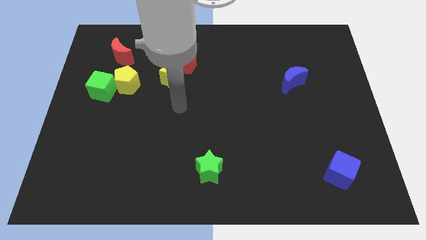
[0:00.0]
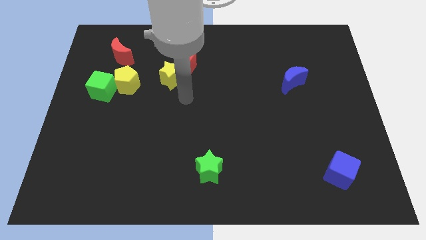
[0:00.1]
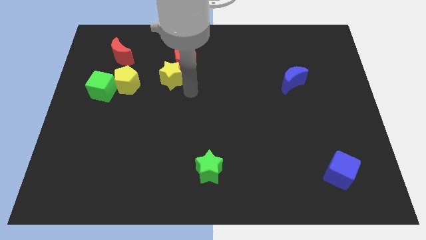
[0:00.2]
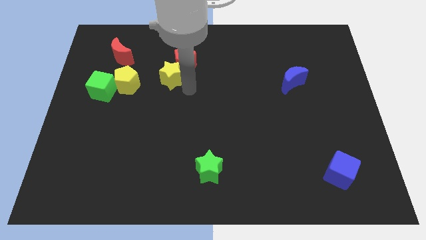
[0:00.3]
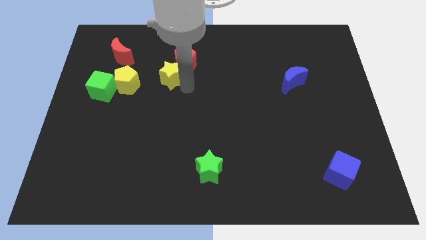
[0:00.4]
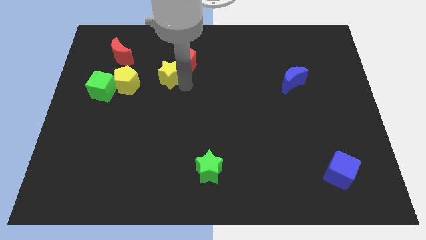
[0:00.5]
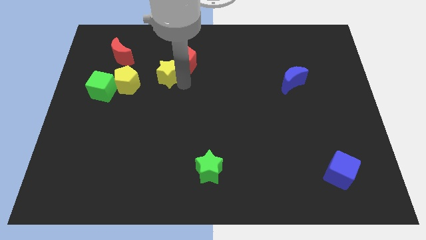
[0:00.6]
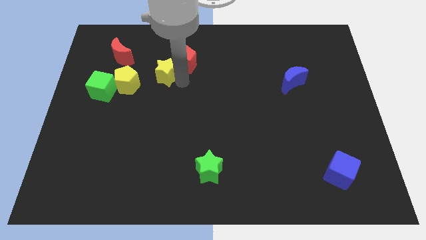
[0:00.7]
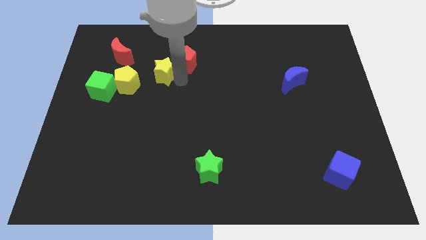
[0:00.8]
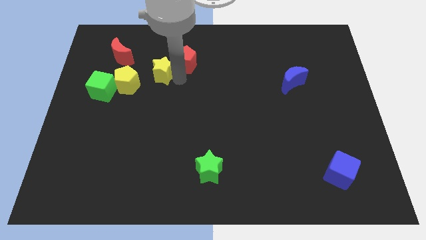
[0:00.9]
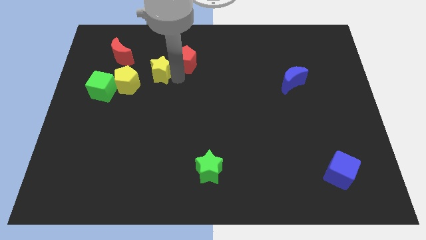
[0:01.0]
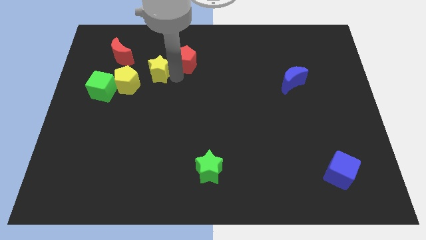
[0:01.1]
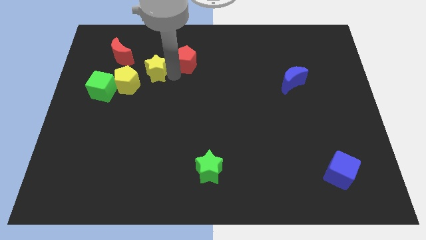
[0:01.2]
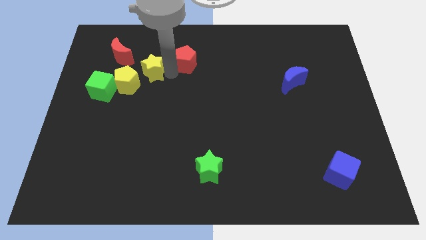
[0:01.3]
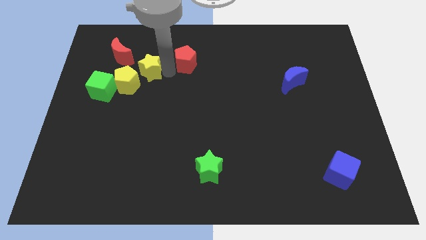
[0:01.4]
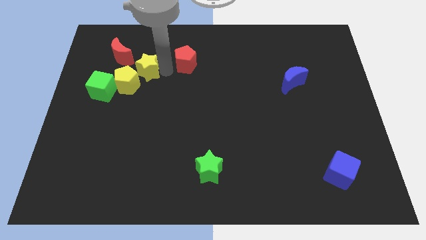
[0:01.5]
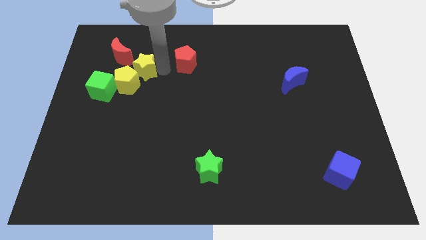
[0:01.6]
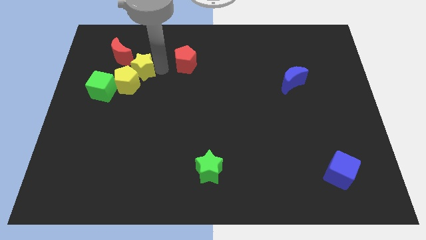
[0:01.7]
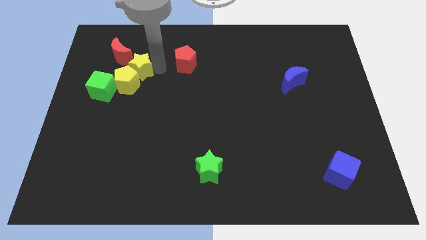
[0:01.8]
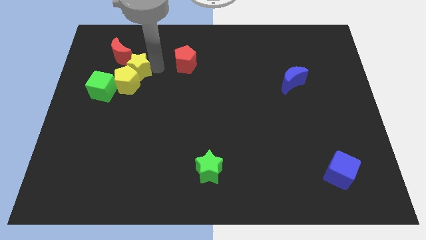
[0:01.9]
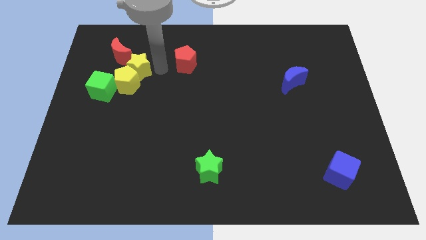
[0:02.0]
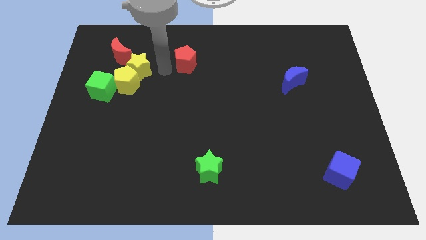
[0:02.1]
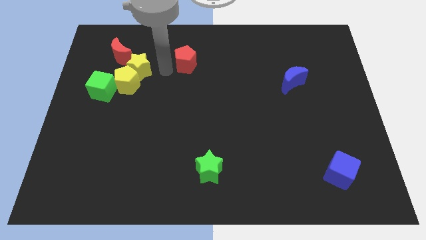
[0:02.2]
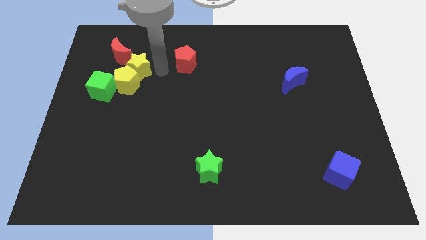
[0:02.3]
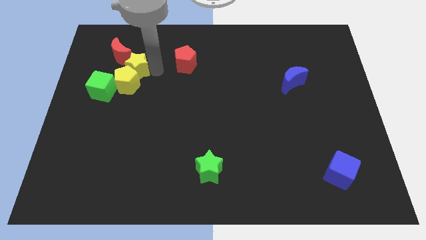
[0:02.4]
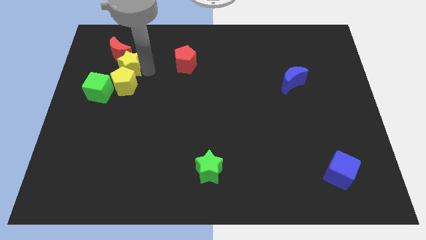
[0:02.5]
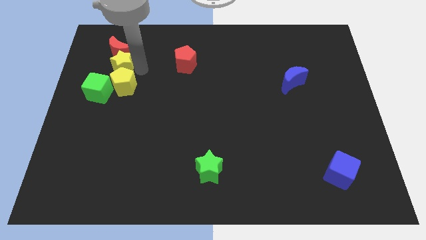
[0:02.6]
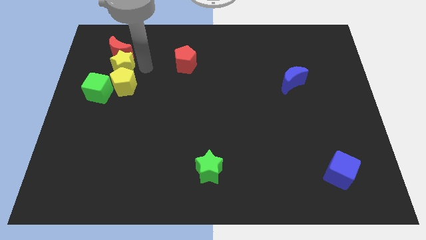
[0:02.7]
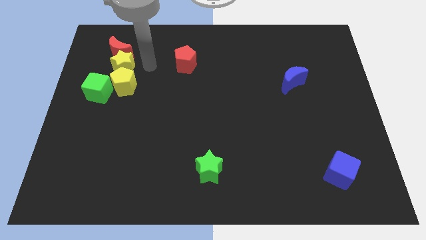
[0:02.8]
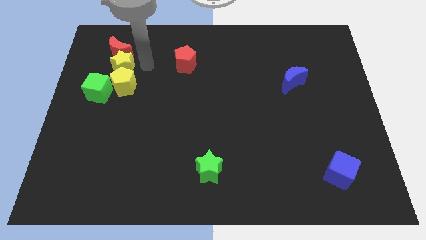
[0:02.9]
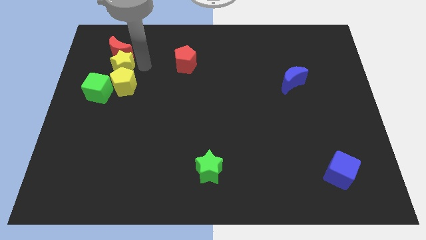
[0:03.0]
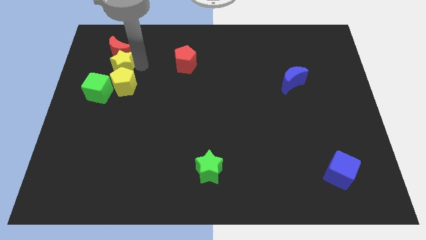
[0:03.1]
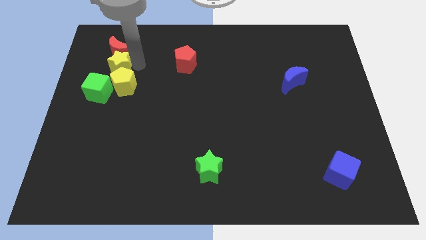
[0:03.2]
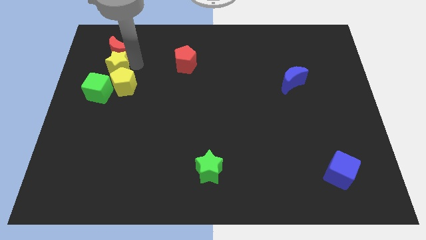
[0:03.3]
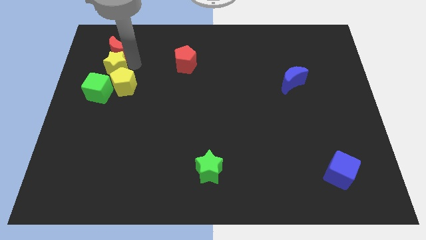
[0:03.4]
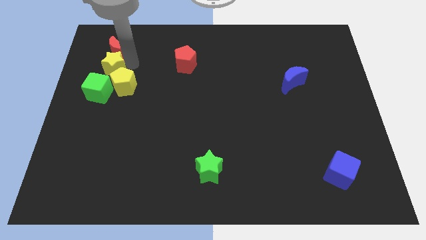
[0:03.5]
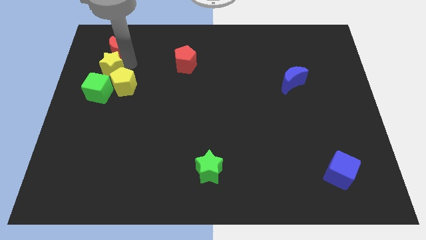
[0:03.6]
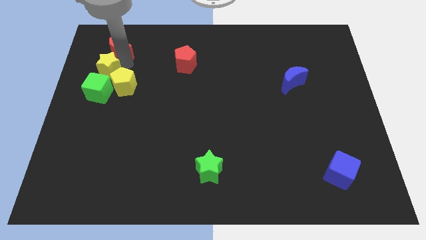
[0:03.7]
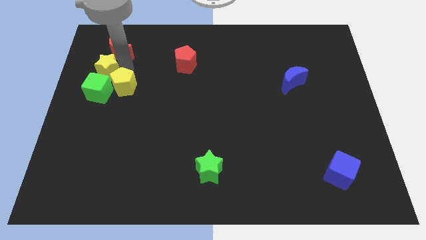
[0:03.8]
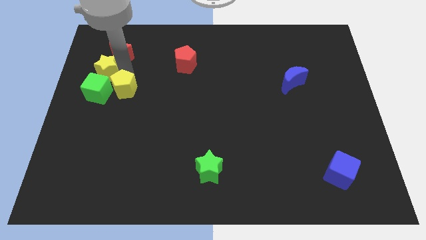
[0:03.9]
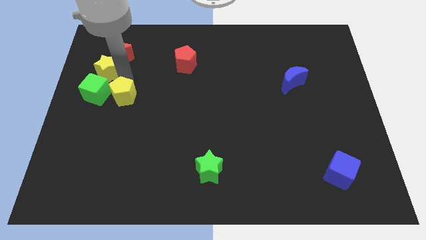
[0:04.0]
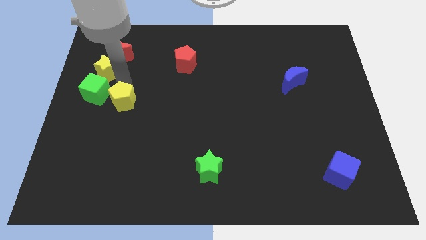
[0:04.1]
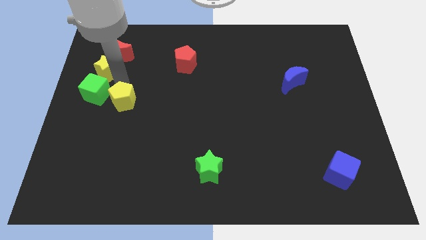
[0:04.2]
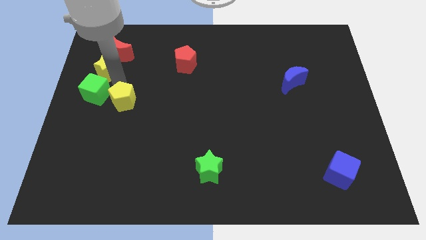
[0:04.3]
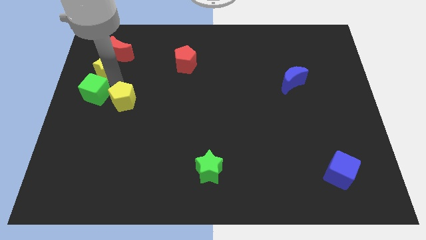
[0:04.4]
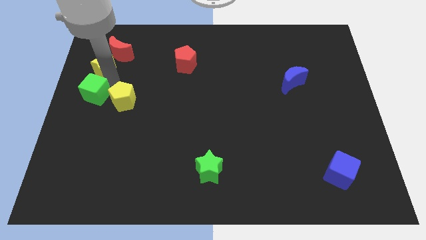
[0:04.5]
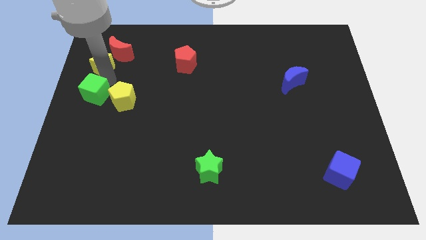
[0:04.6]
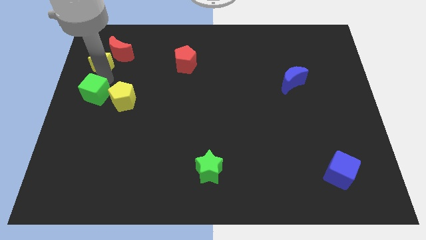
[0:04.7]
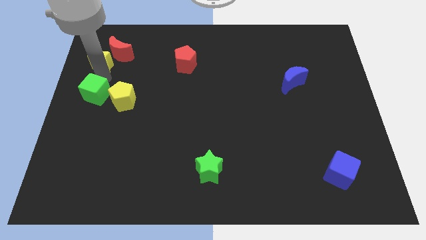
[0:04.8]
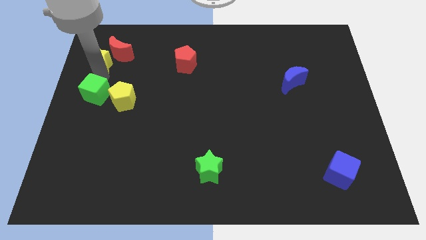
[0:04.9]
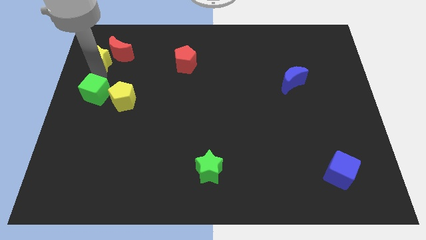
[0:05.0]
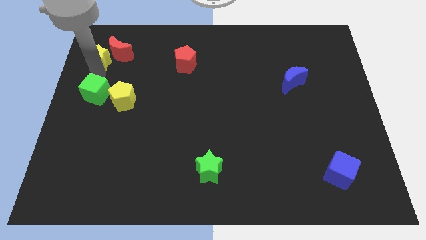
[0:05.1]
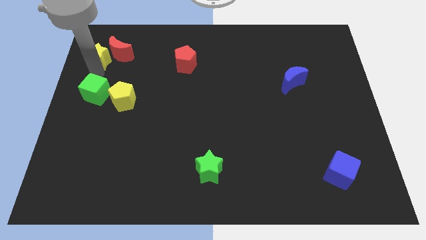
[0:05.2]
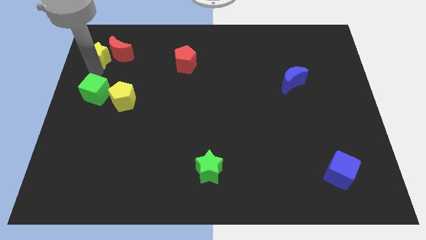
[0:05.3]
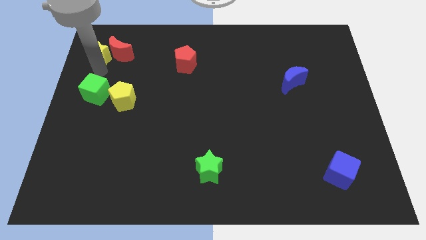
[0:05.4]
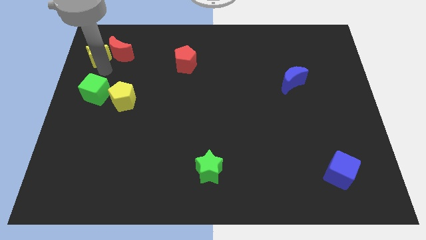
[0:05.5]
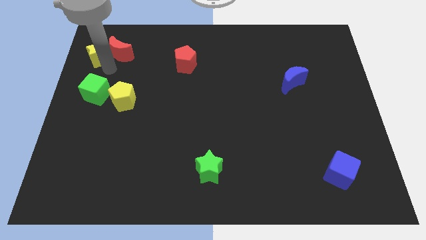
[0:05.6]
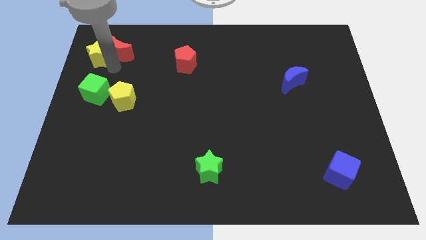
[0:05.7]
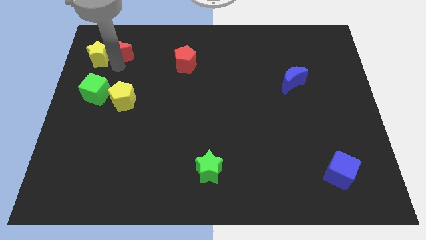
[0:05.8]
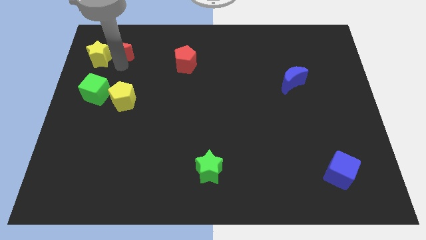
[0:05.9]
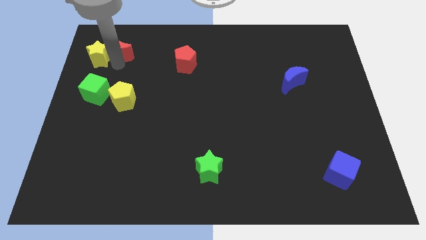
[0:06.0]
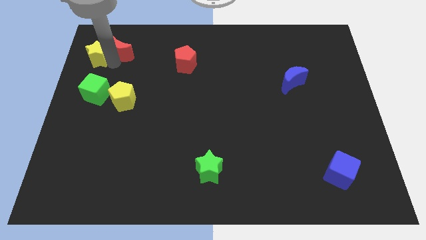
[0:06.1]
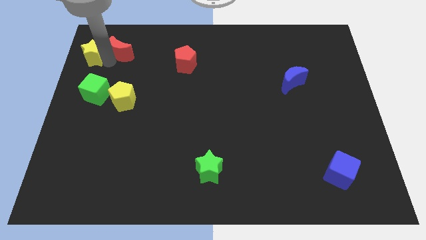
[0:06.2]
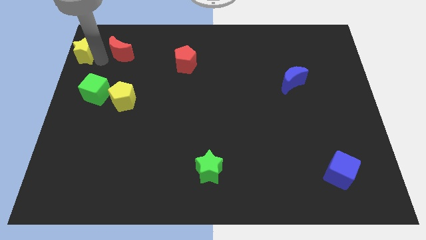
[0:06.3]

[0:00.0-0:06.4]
move the yellow star to the top left
